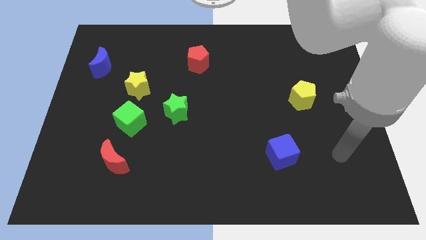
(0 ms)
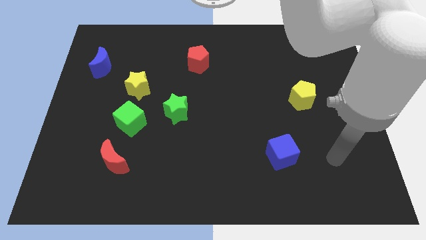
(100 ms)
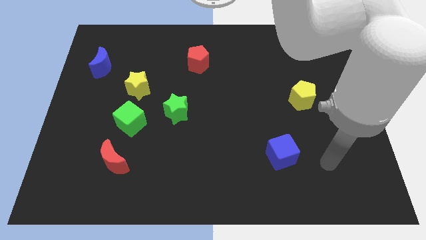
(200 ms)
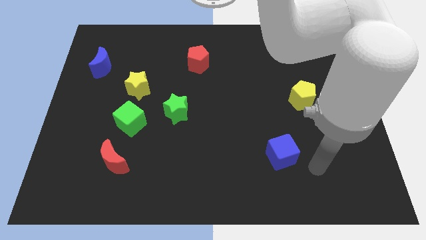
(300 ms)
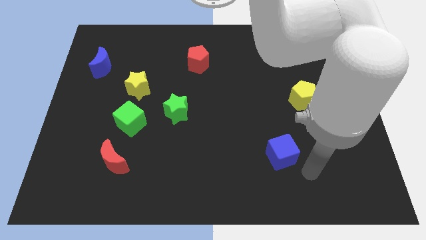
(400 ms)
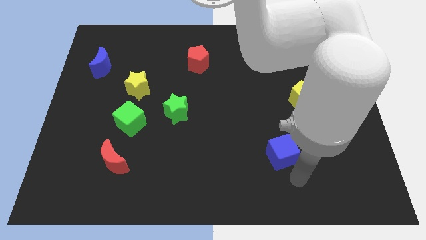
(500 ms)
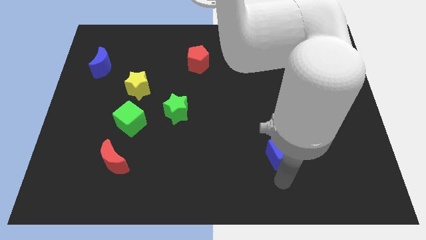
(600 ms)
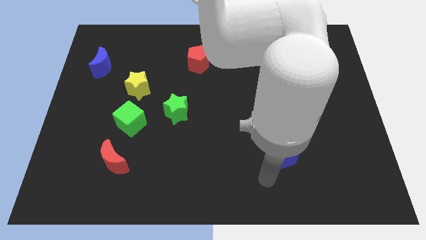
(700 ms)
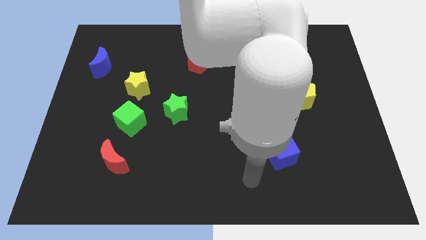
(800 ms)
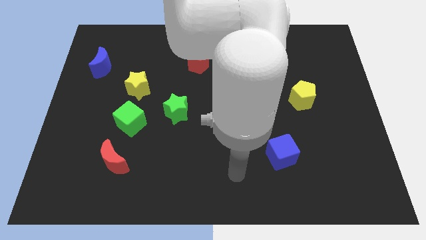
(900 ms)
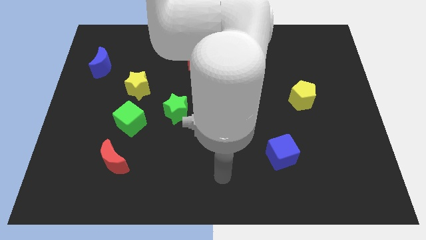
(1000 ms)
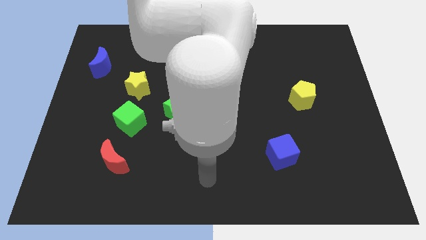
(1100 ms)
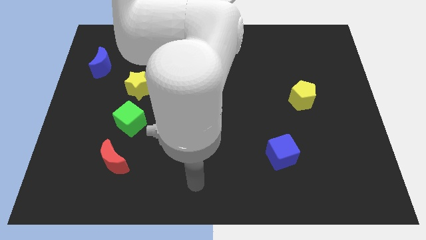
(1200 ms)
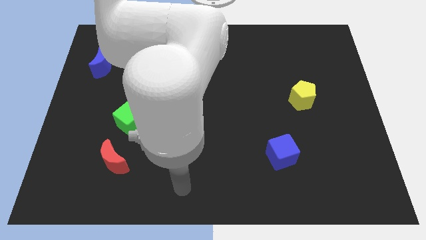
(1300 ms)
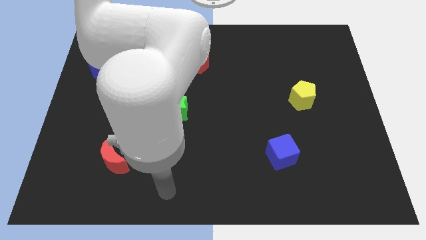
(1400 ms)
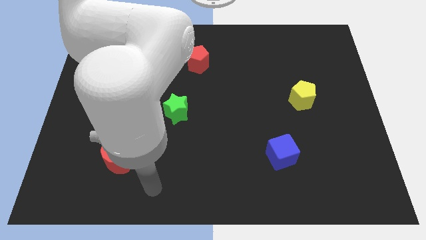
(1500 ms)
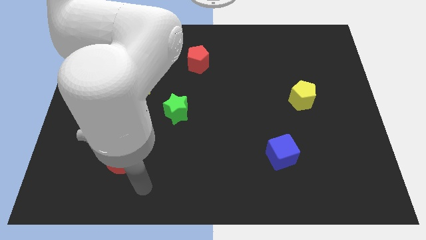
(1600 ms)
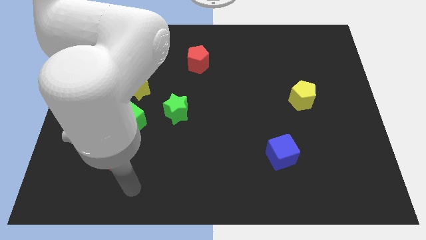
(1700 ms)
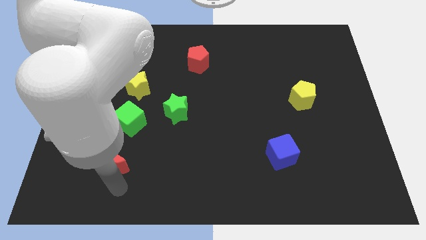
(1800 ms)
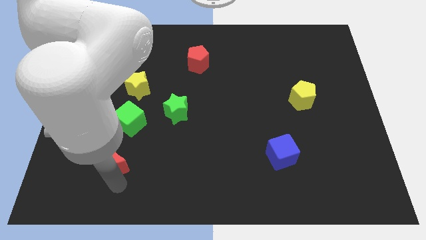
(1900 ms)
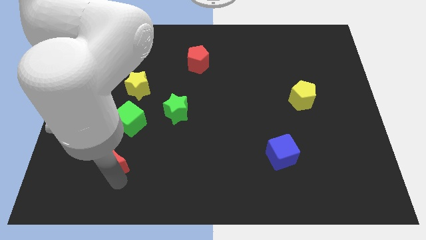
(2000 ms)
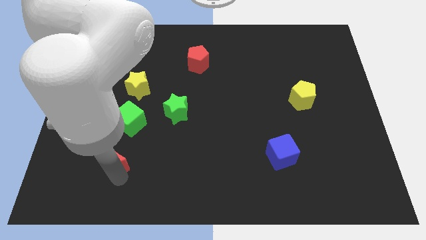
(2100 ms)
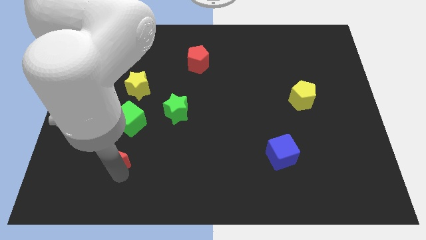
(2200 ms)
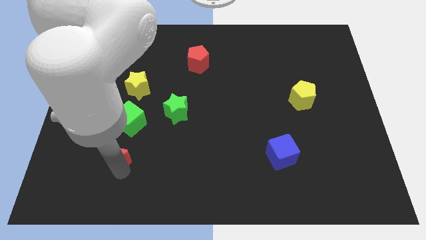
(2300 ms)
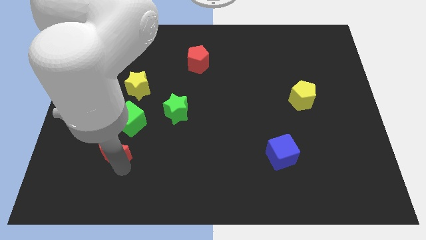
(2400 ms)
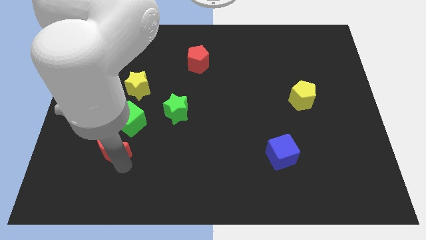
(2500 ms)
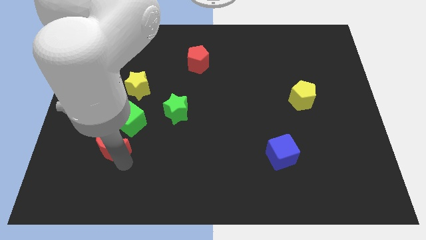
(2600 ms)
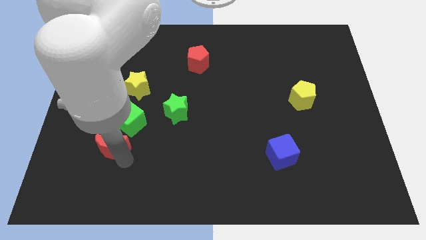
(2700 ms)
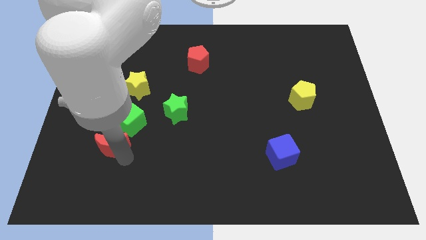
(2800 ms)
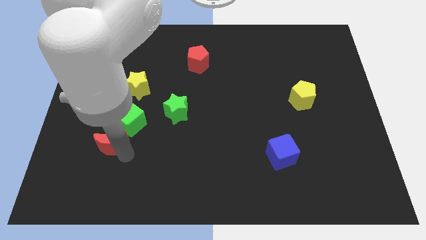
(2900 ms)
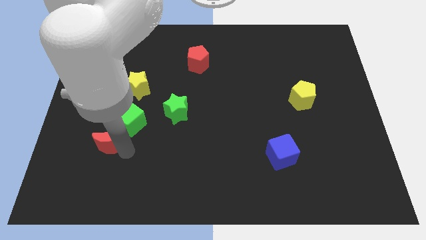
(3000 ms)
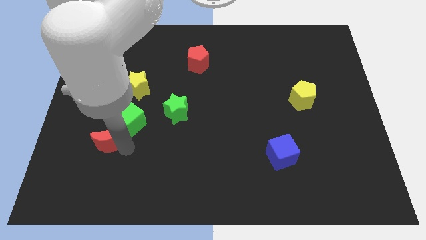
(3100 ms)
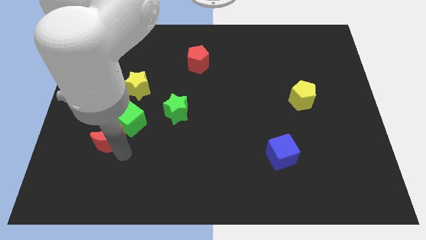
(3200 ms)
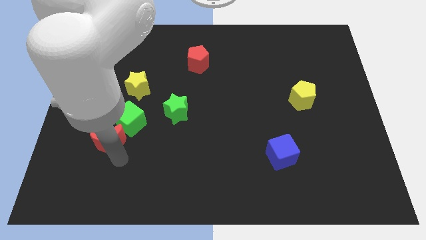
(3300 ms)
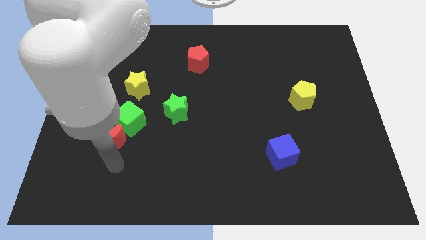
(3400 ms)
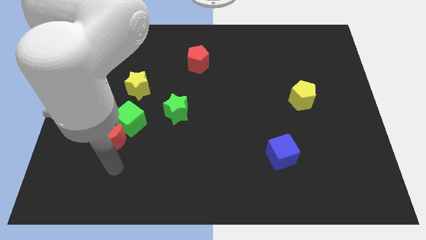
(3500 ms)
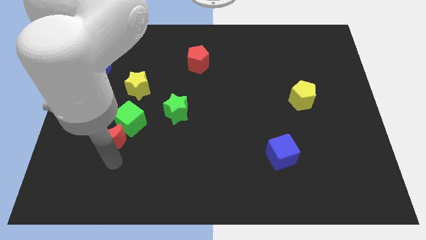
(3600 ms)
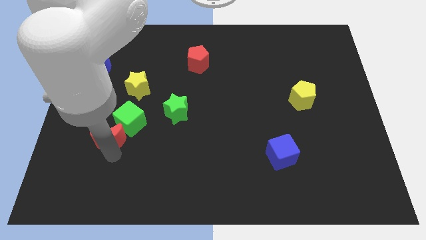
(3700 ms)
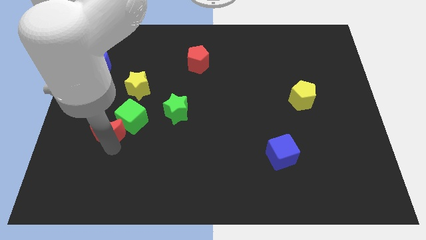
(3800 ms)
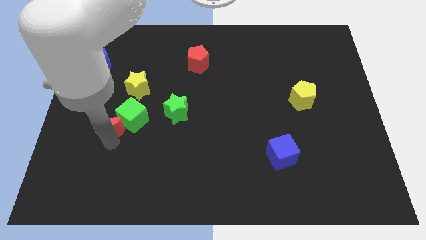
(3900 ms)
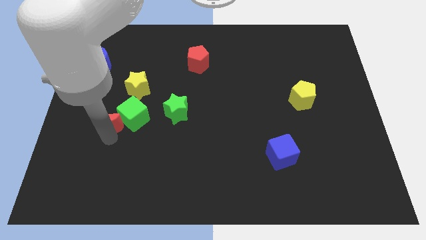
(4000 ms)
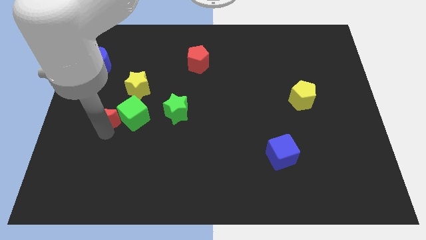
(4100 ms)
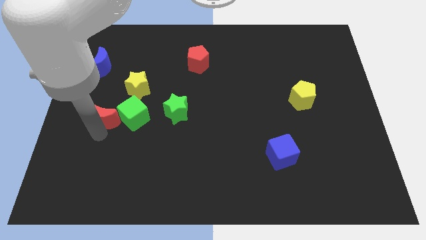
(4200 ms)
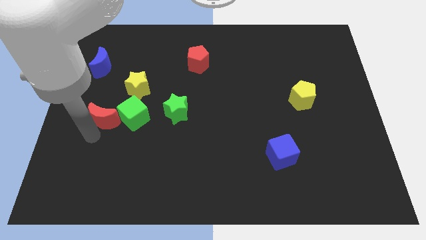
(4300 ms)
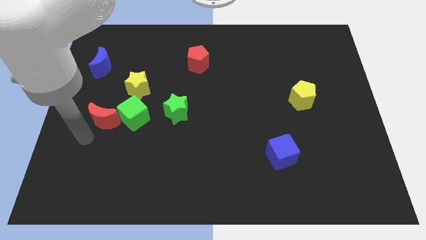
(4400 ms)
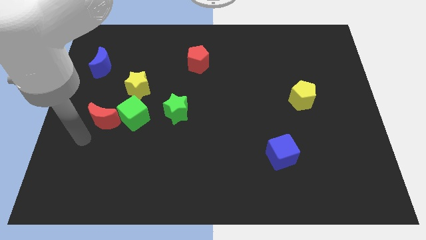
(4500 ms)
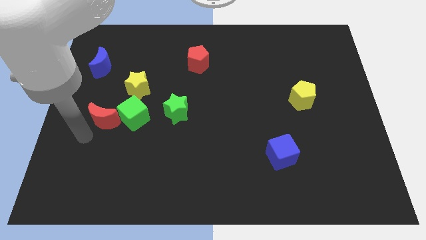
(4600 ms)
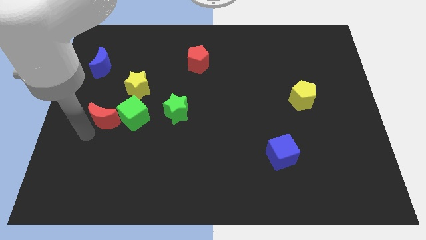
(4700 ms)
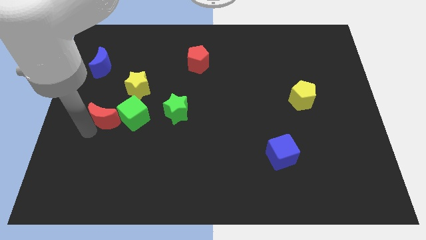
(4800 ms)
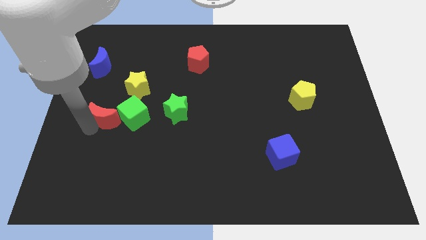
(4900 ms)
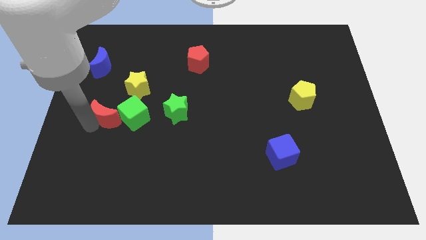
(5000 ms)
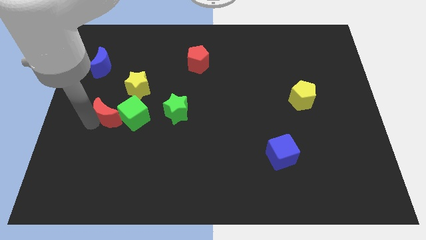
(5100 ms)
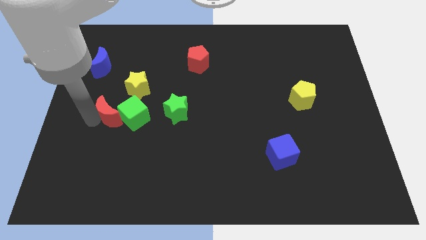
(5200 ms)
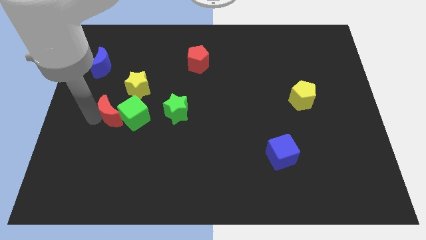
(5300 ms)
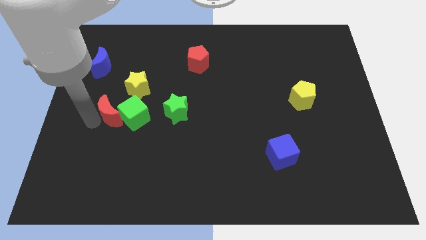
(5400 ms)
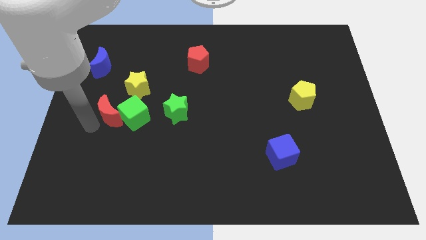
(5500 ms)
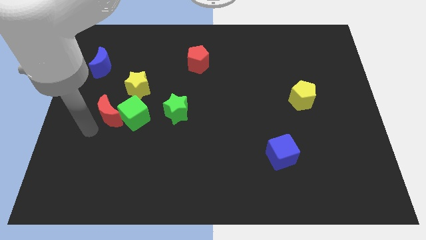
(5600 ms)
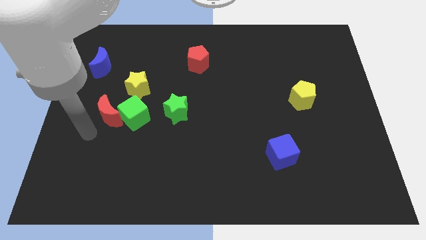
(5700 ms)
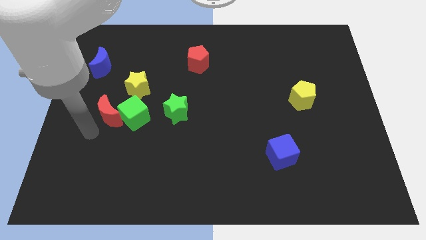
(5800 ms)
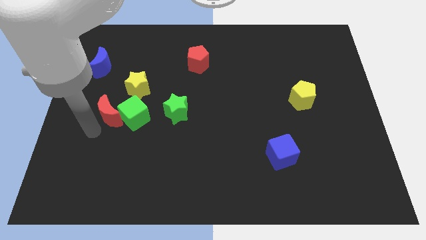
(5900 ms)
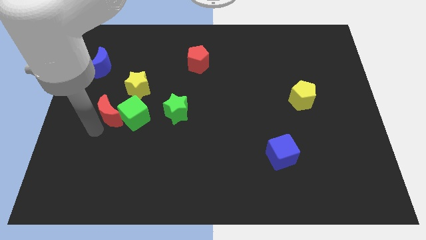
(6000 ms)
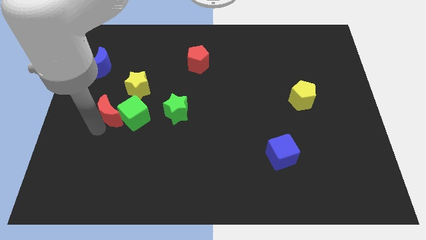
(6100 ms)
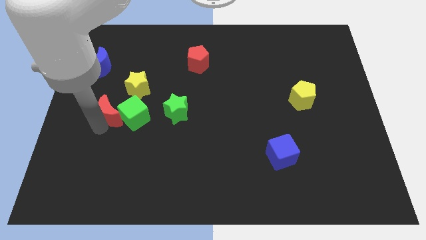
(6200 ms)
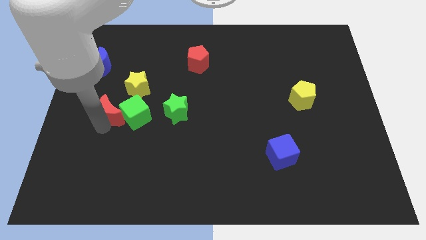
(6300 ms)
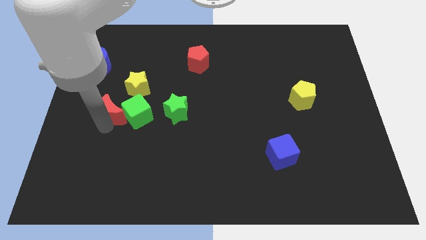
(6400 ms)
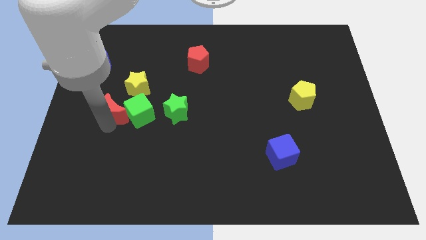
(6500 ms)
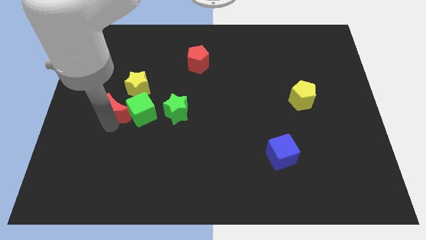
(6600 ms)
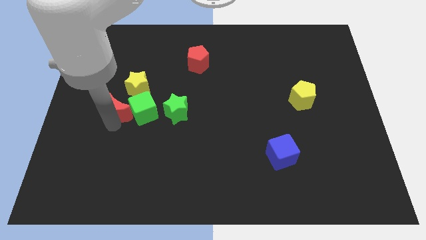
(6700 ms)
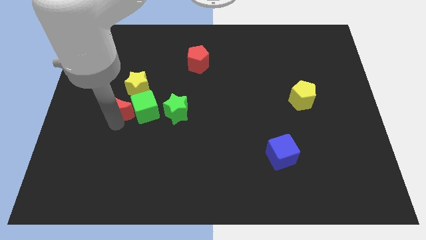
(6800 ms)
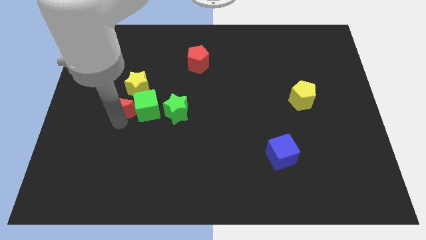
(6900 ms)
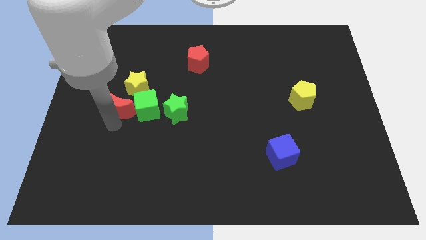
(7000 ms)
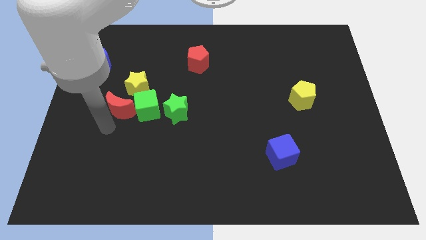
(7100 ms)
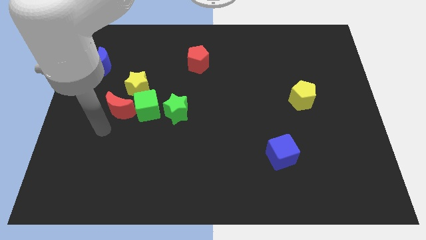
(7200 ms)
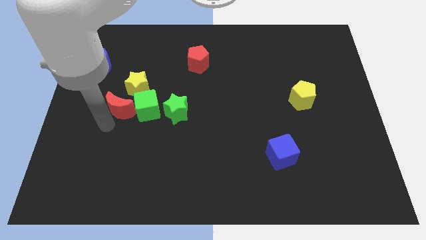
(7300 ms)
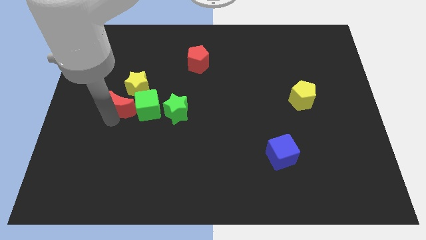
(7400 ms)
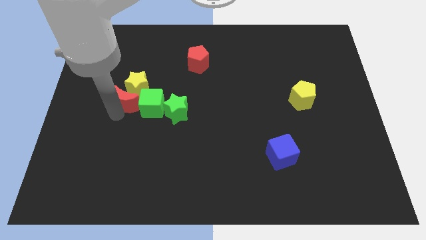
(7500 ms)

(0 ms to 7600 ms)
slide the red moon close to the yellow star
